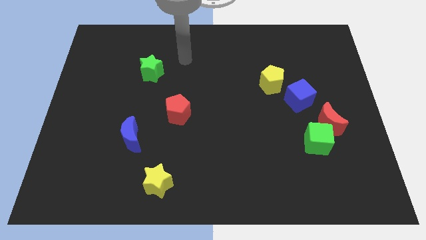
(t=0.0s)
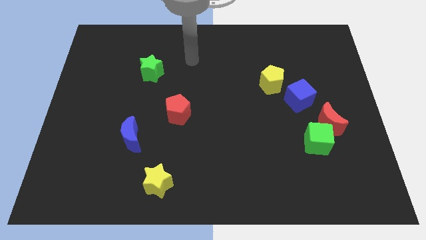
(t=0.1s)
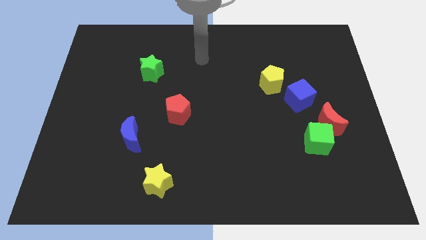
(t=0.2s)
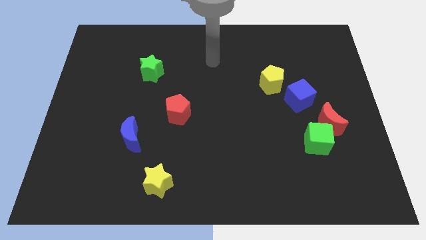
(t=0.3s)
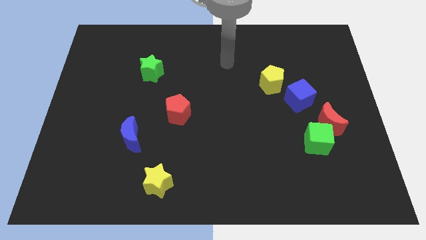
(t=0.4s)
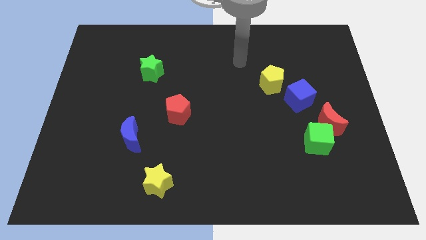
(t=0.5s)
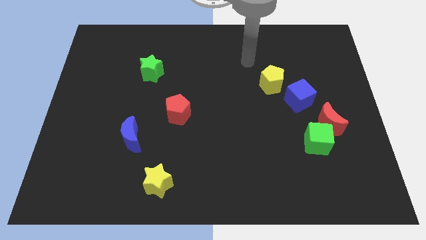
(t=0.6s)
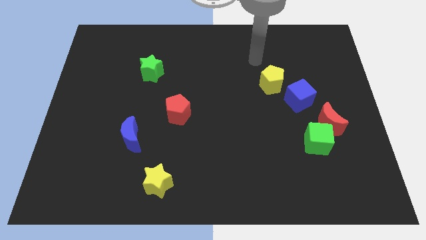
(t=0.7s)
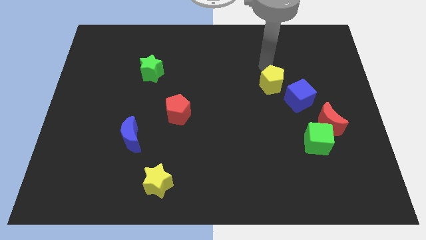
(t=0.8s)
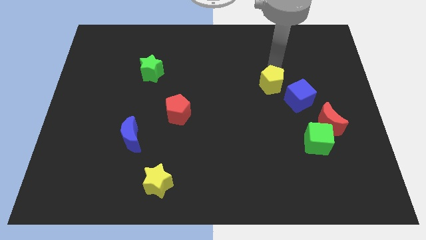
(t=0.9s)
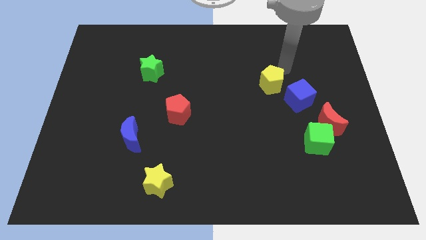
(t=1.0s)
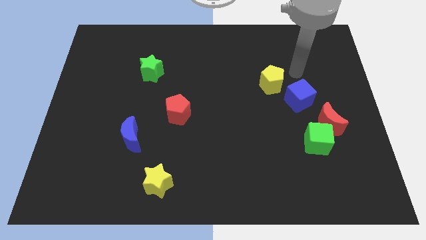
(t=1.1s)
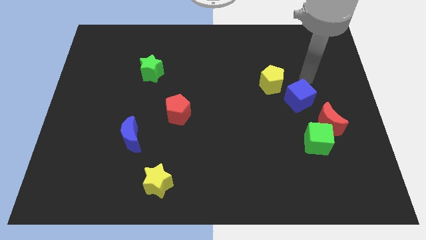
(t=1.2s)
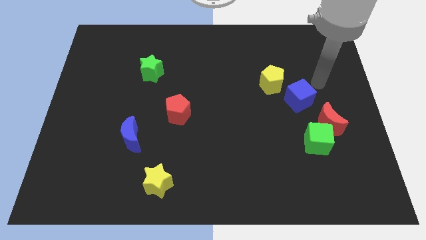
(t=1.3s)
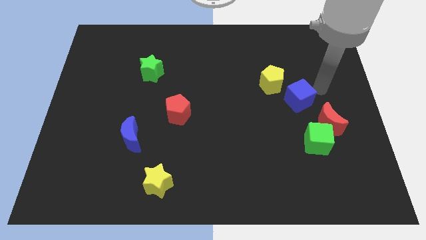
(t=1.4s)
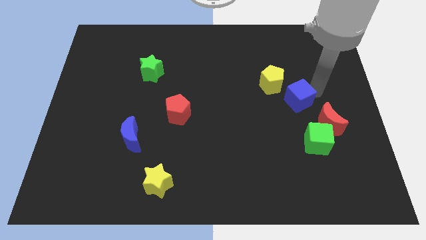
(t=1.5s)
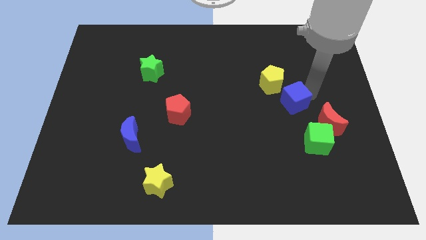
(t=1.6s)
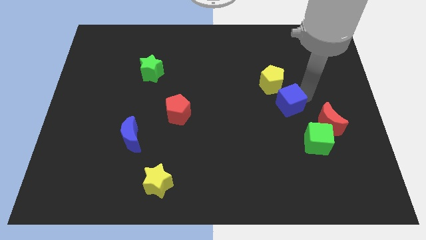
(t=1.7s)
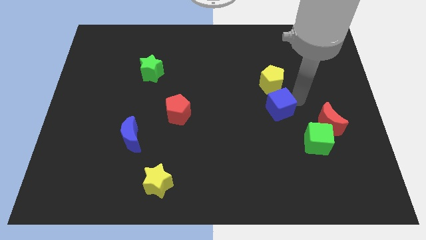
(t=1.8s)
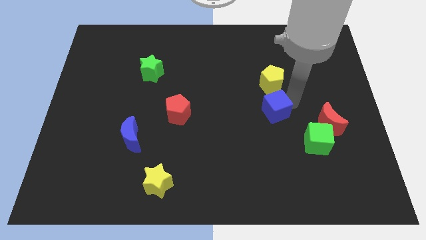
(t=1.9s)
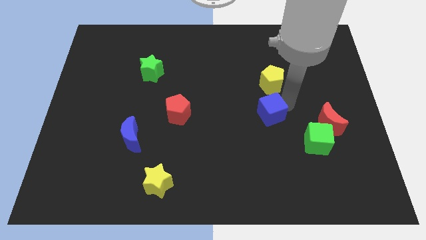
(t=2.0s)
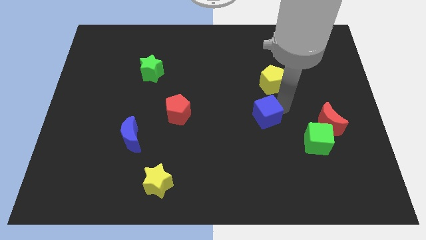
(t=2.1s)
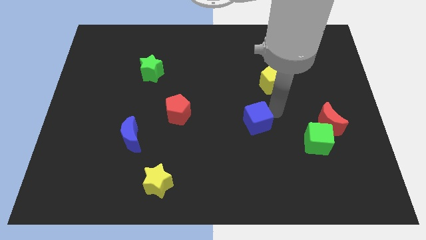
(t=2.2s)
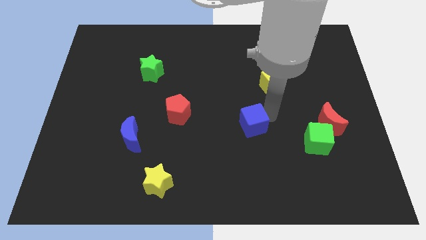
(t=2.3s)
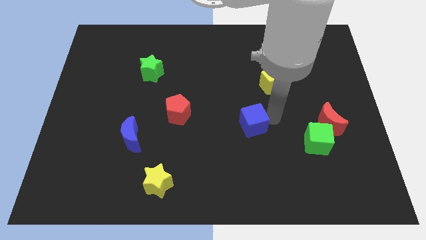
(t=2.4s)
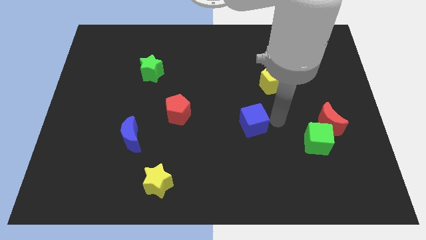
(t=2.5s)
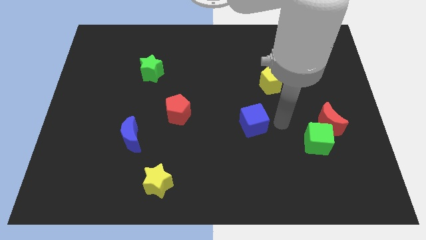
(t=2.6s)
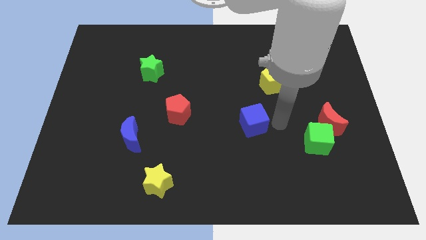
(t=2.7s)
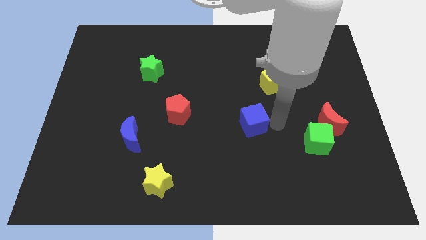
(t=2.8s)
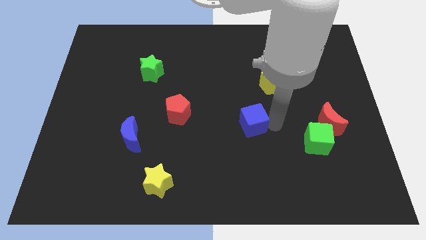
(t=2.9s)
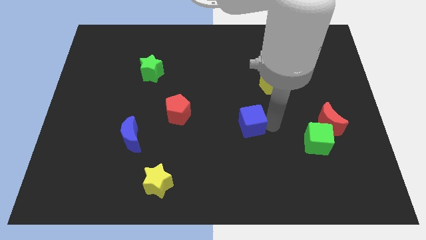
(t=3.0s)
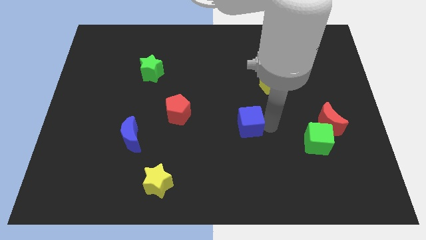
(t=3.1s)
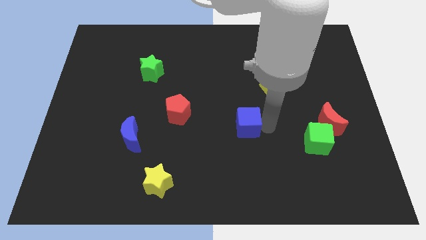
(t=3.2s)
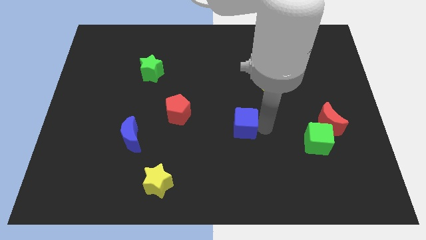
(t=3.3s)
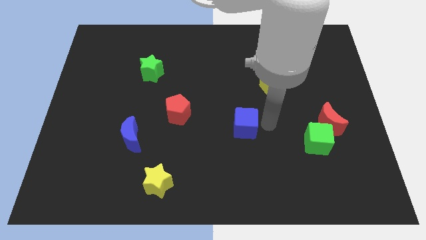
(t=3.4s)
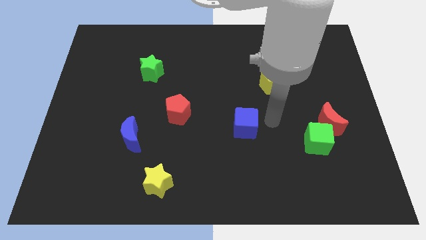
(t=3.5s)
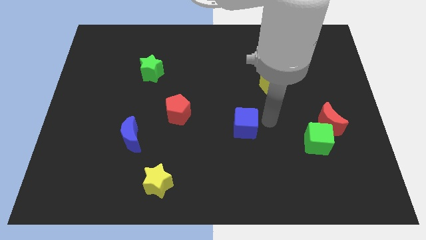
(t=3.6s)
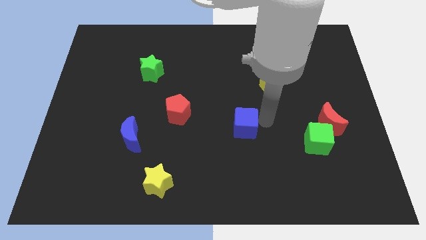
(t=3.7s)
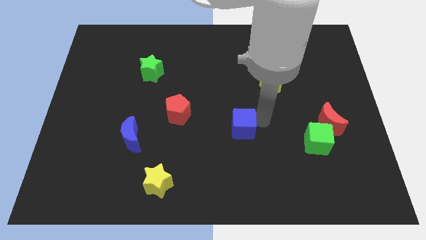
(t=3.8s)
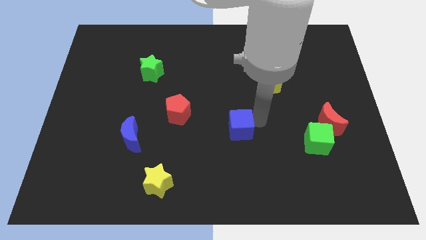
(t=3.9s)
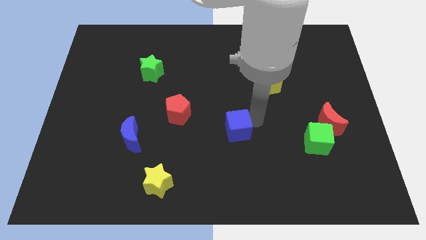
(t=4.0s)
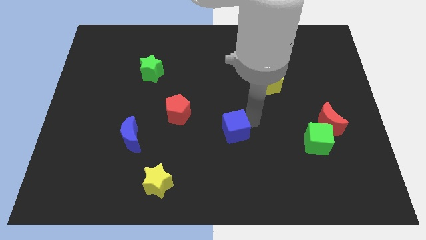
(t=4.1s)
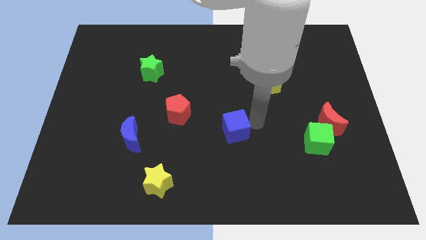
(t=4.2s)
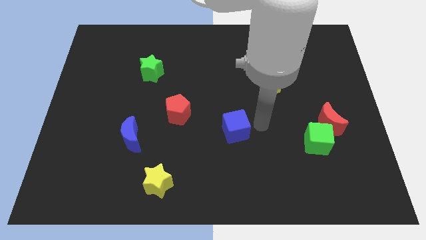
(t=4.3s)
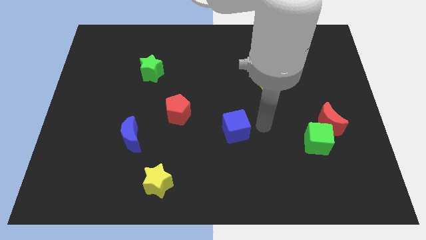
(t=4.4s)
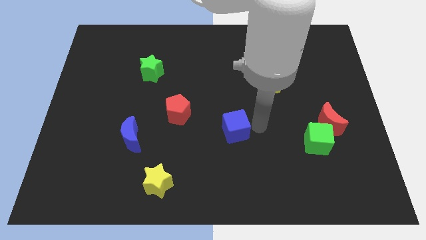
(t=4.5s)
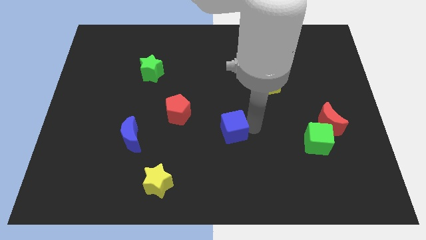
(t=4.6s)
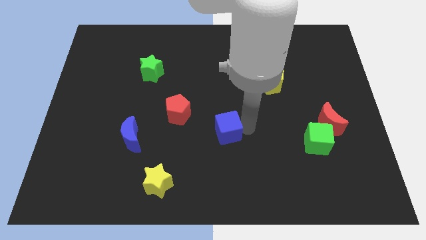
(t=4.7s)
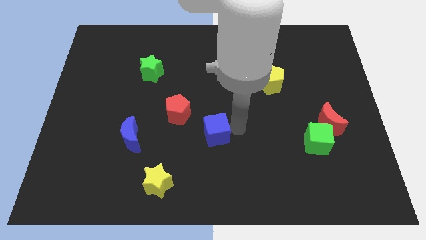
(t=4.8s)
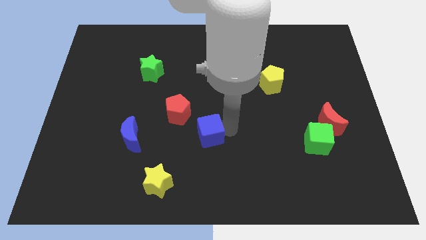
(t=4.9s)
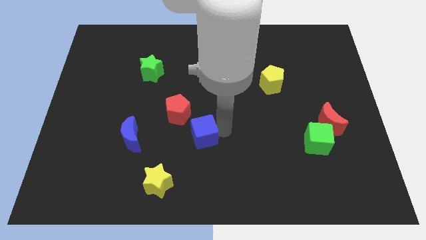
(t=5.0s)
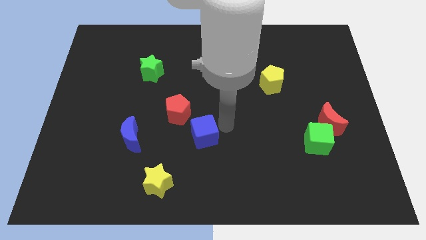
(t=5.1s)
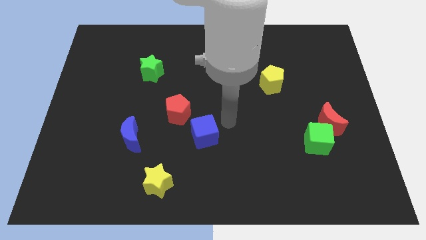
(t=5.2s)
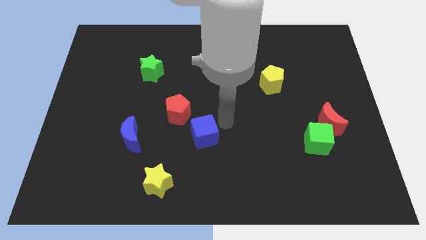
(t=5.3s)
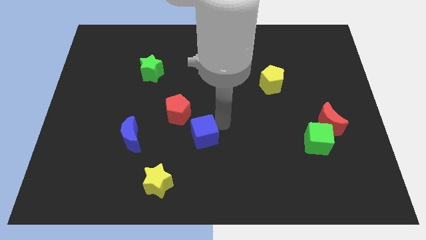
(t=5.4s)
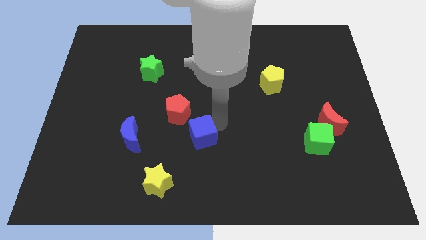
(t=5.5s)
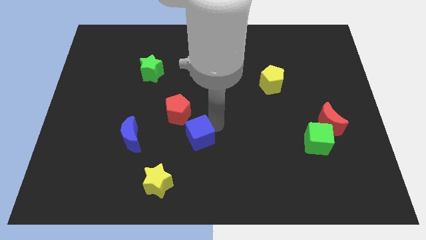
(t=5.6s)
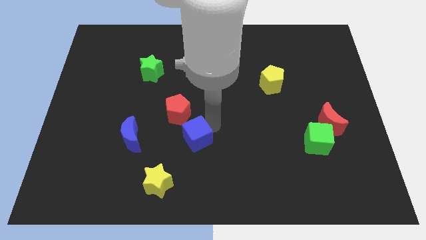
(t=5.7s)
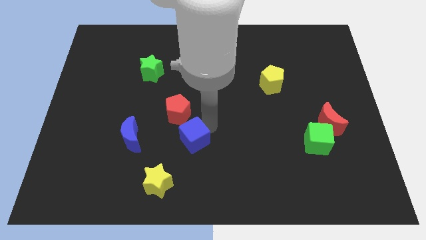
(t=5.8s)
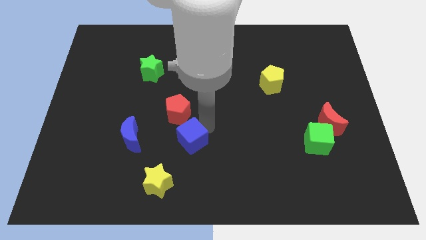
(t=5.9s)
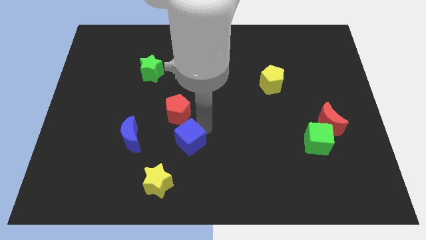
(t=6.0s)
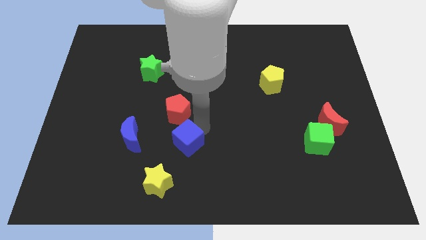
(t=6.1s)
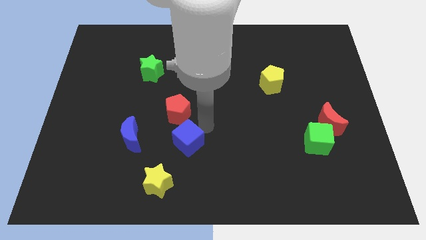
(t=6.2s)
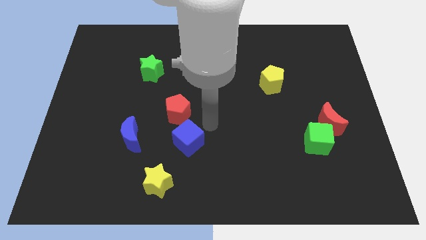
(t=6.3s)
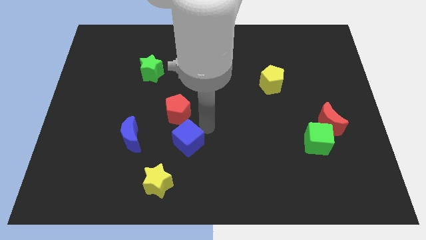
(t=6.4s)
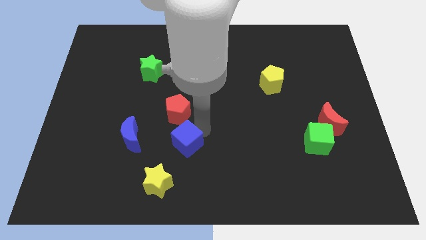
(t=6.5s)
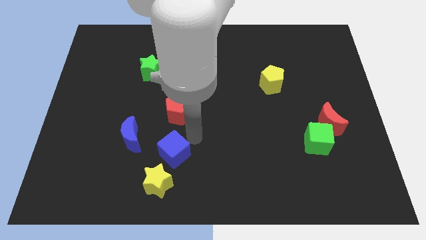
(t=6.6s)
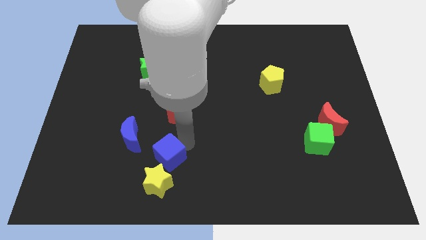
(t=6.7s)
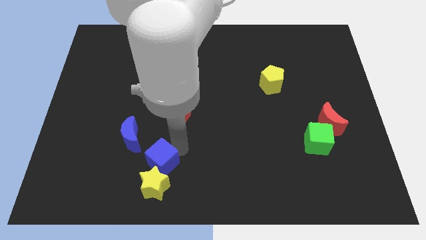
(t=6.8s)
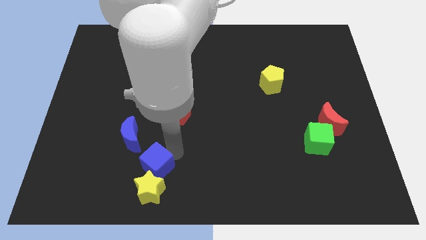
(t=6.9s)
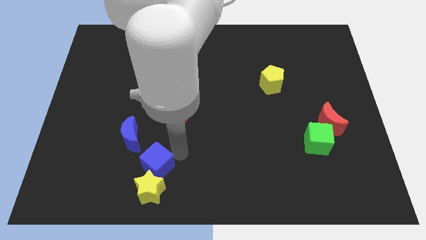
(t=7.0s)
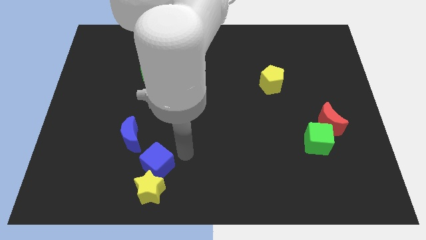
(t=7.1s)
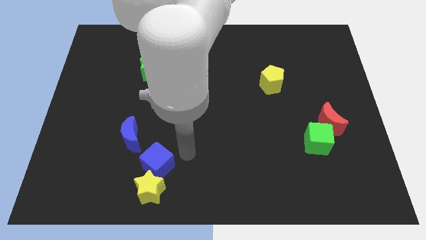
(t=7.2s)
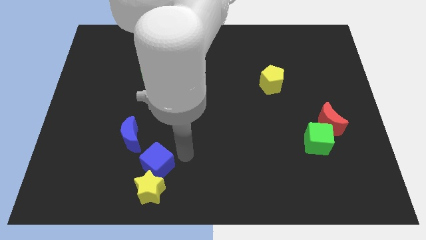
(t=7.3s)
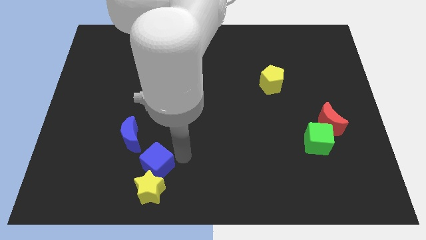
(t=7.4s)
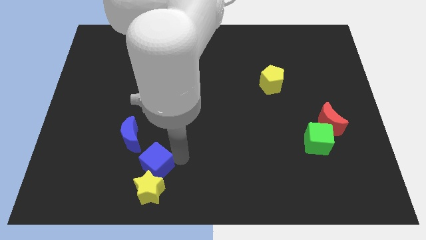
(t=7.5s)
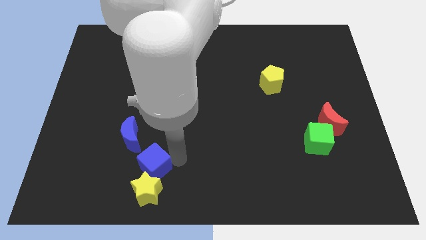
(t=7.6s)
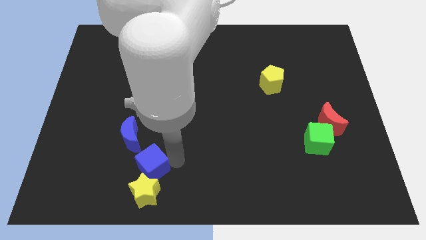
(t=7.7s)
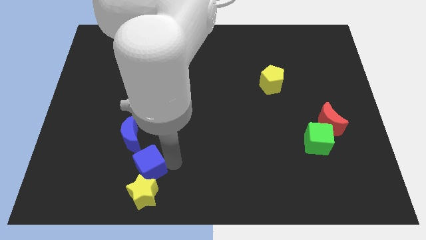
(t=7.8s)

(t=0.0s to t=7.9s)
move the blue cube below the blue moon
